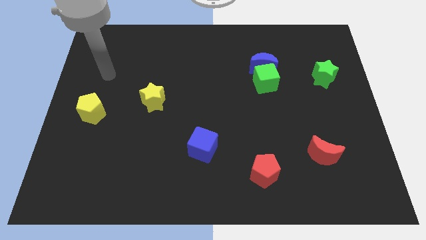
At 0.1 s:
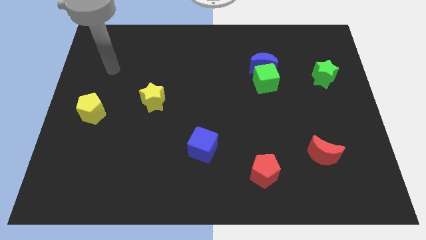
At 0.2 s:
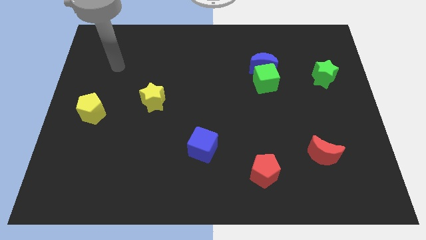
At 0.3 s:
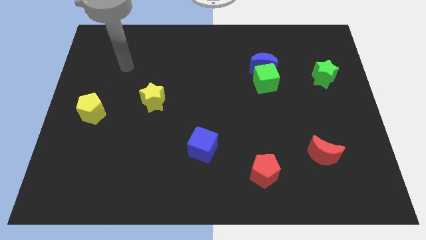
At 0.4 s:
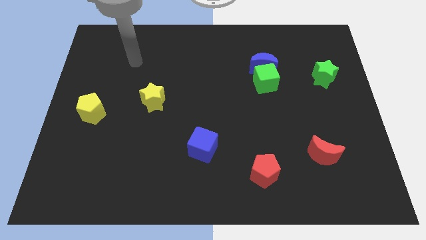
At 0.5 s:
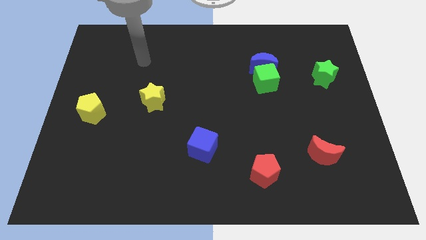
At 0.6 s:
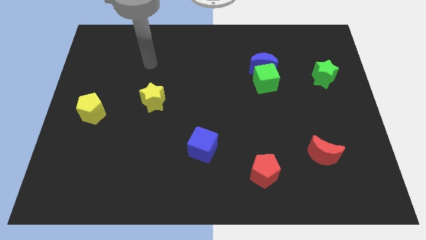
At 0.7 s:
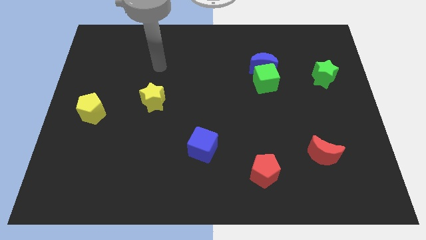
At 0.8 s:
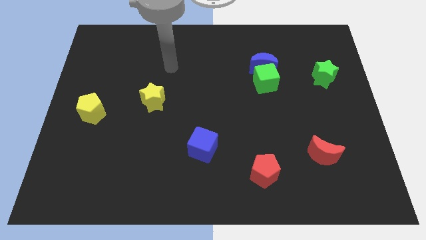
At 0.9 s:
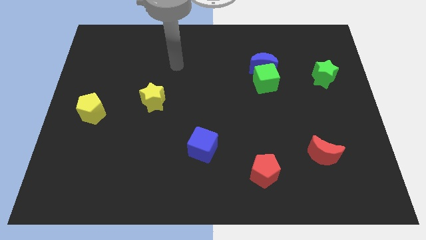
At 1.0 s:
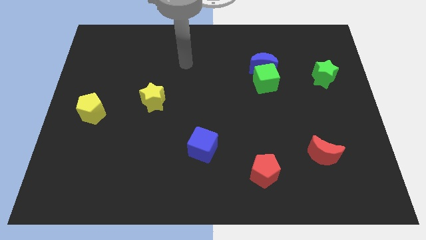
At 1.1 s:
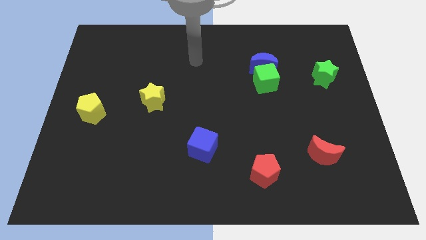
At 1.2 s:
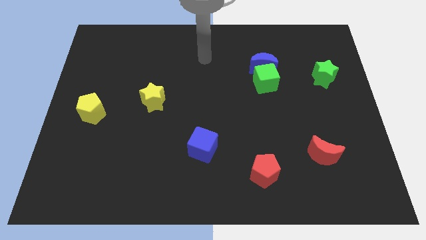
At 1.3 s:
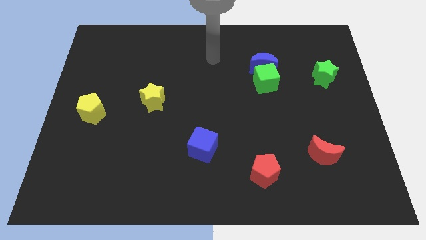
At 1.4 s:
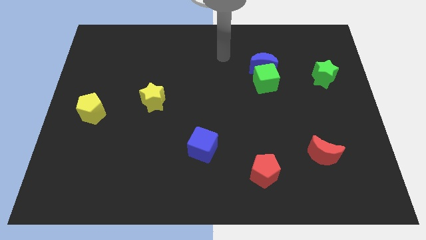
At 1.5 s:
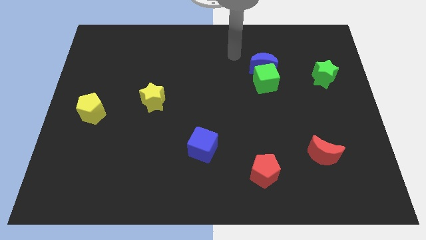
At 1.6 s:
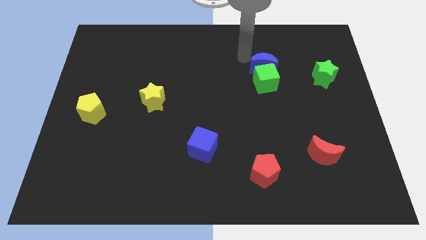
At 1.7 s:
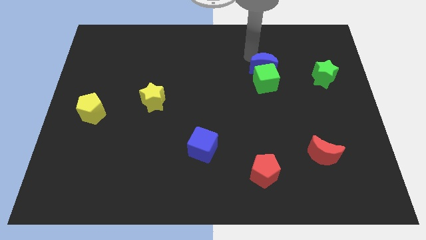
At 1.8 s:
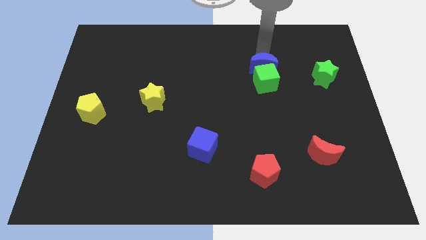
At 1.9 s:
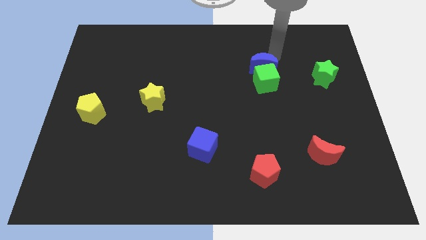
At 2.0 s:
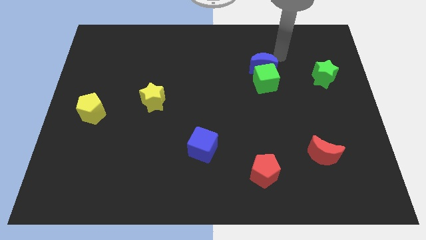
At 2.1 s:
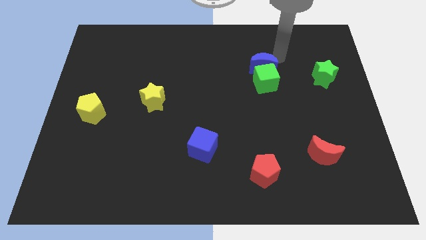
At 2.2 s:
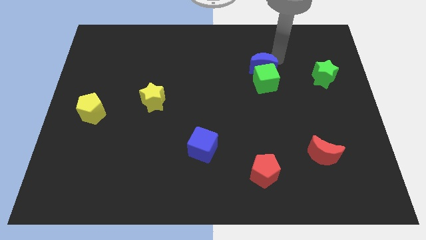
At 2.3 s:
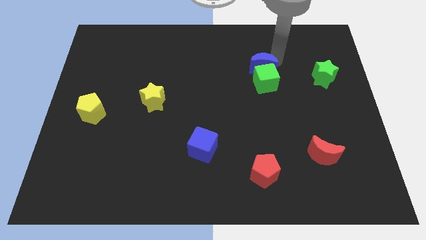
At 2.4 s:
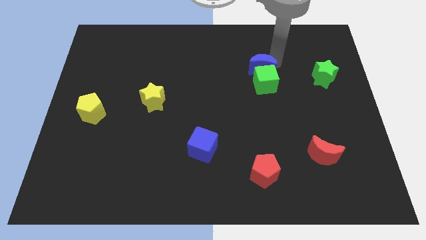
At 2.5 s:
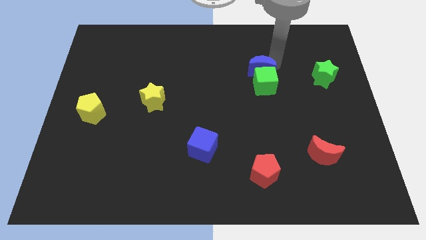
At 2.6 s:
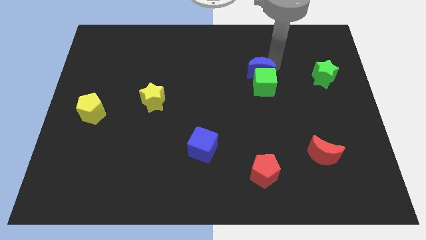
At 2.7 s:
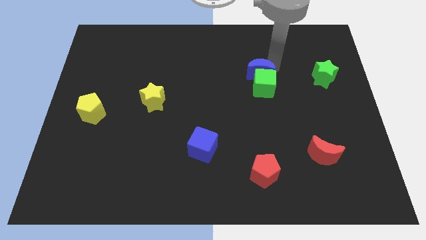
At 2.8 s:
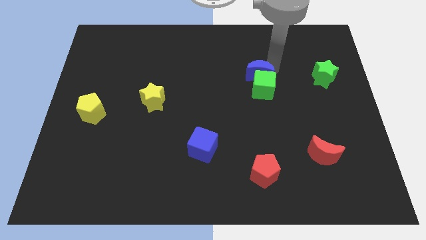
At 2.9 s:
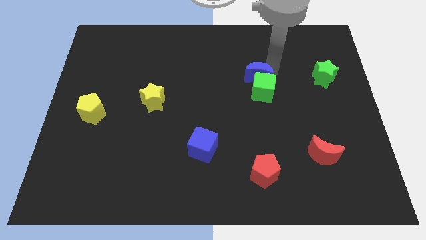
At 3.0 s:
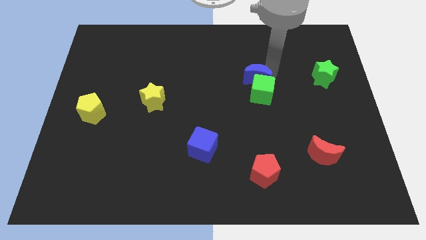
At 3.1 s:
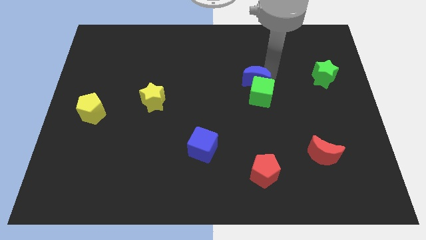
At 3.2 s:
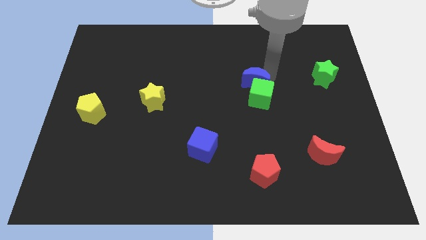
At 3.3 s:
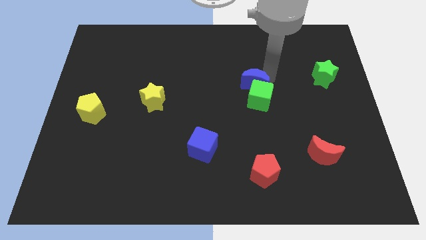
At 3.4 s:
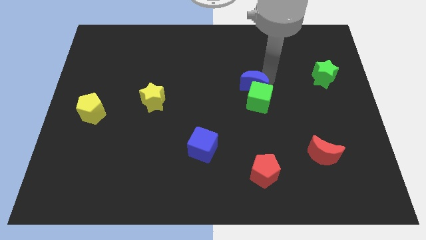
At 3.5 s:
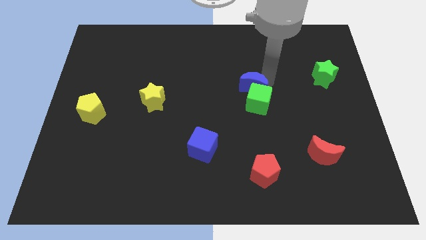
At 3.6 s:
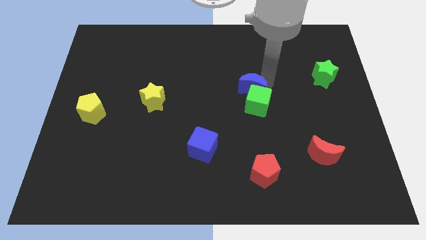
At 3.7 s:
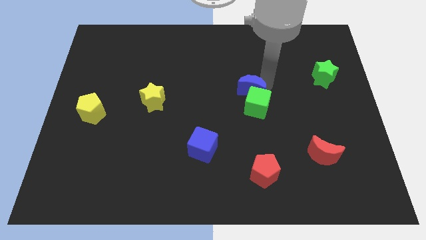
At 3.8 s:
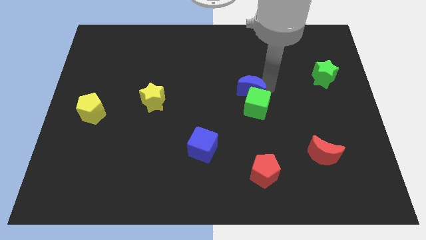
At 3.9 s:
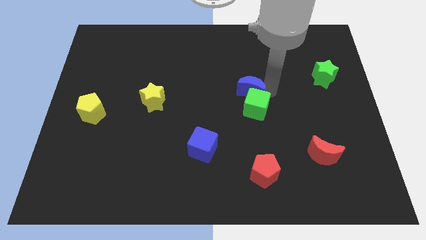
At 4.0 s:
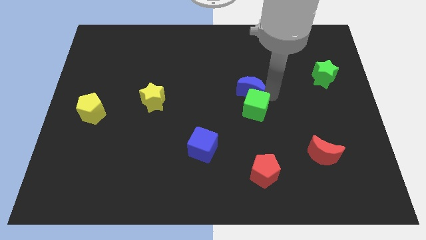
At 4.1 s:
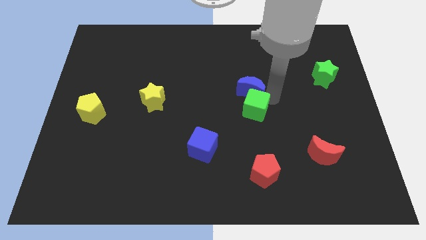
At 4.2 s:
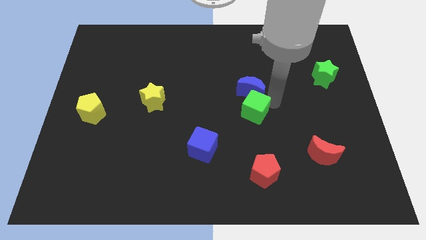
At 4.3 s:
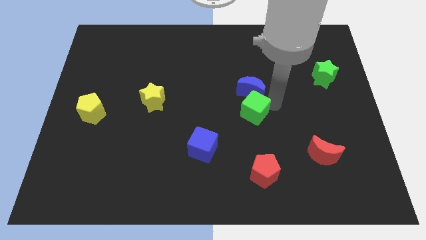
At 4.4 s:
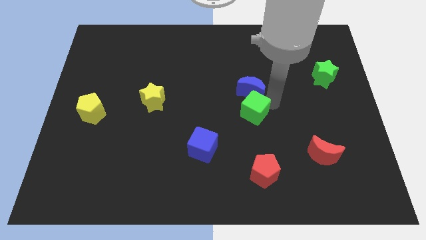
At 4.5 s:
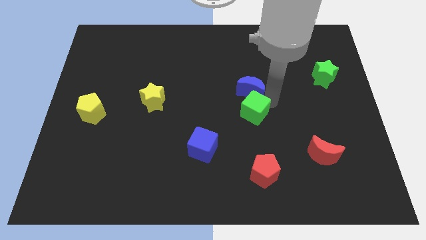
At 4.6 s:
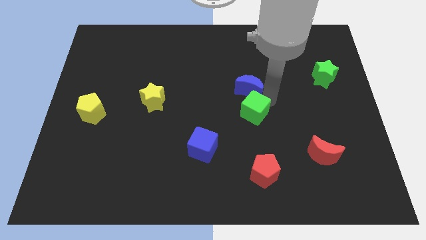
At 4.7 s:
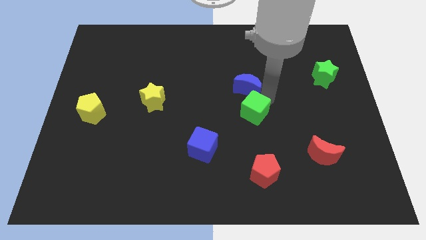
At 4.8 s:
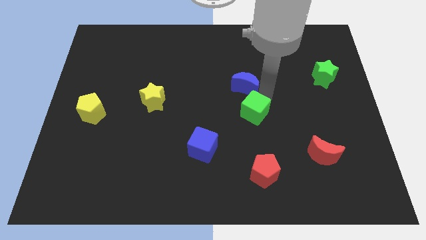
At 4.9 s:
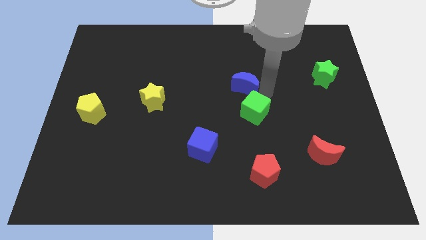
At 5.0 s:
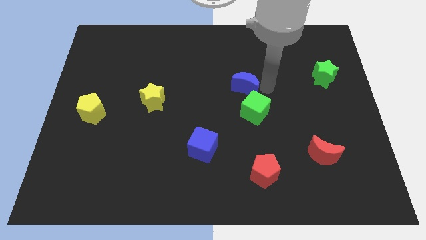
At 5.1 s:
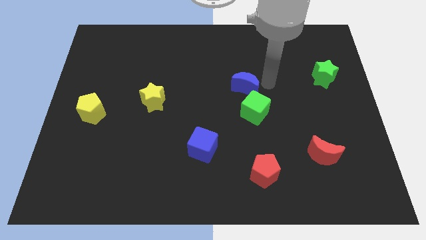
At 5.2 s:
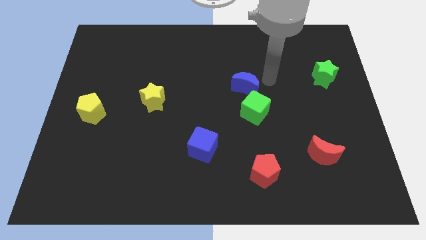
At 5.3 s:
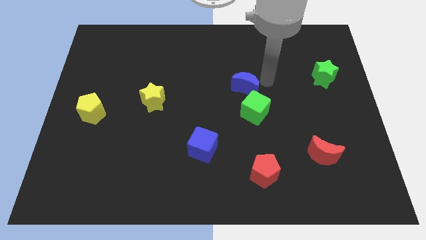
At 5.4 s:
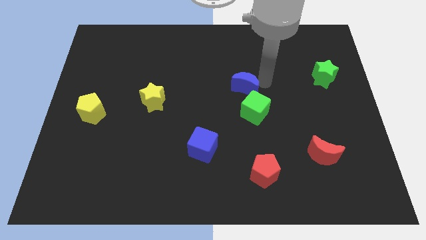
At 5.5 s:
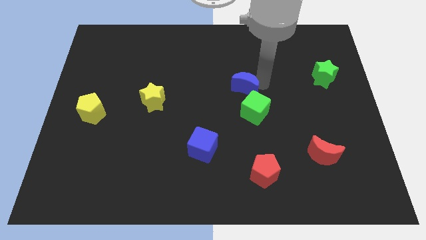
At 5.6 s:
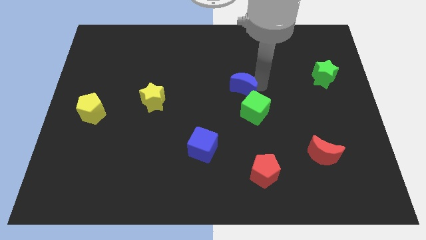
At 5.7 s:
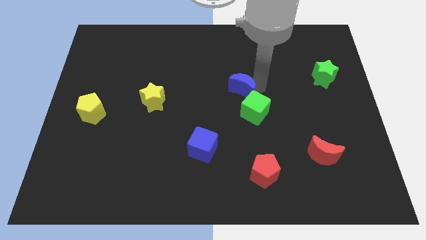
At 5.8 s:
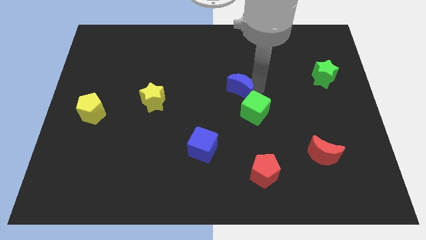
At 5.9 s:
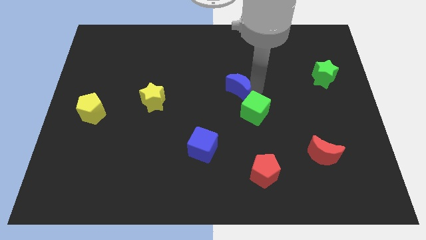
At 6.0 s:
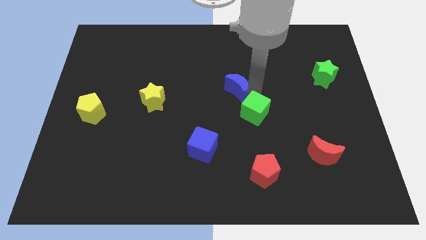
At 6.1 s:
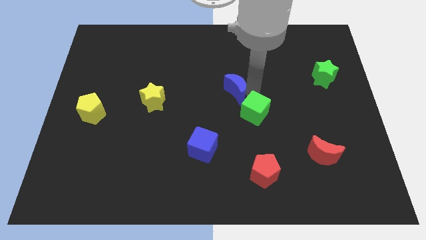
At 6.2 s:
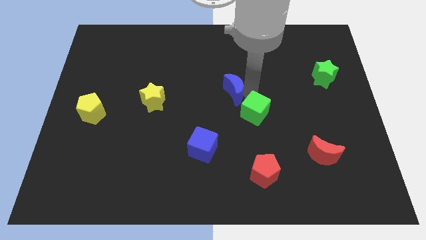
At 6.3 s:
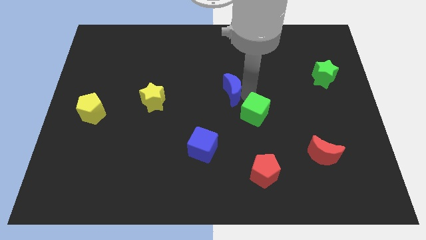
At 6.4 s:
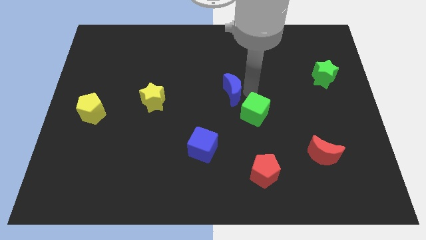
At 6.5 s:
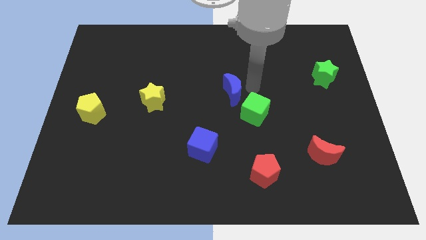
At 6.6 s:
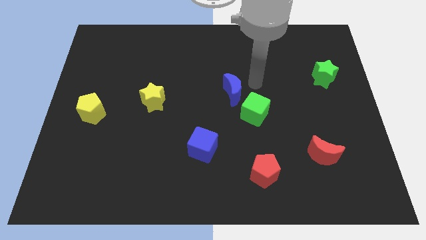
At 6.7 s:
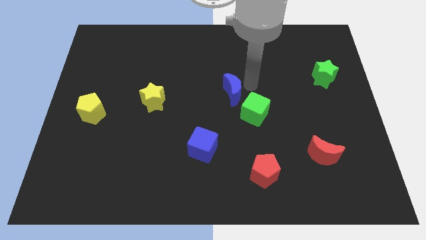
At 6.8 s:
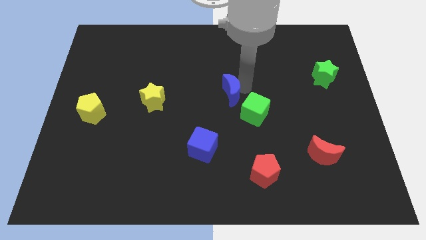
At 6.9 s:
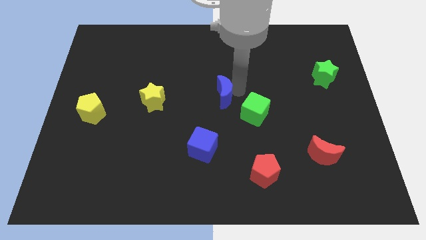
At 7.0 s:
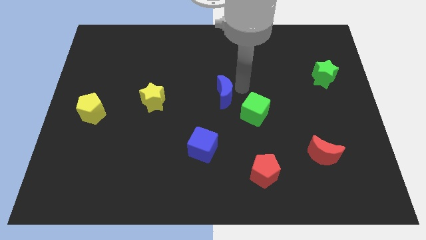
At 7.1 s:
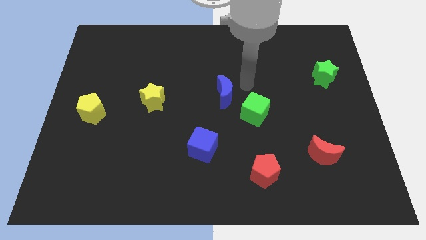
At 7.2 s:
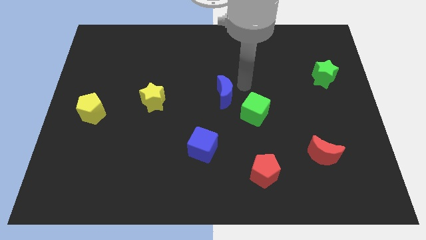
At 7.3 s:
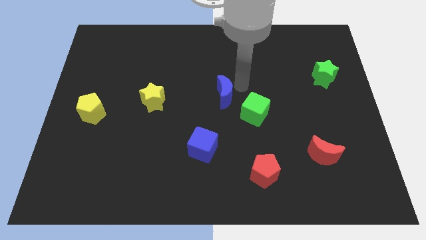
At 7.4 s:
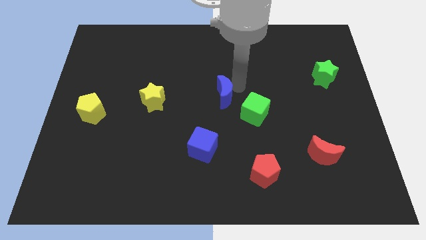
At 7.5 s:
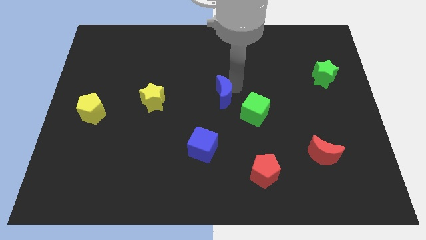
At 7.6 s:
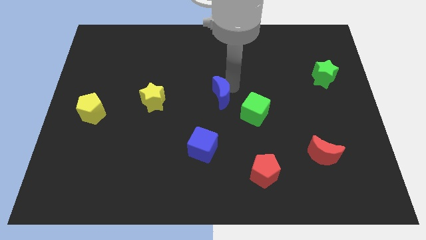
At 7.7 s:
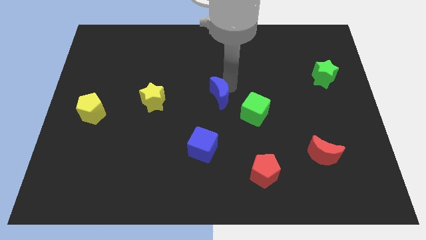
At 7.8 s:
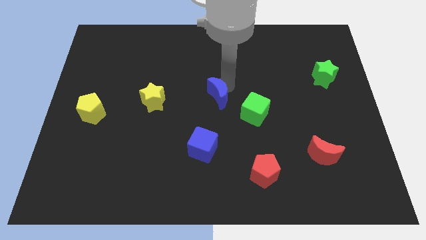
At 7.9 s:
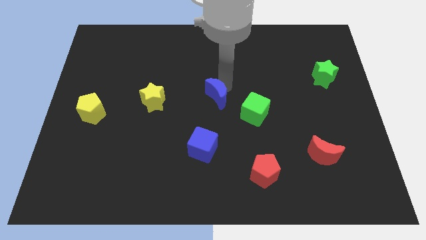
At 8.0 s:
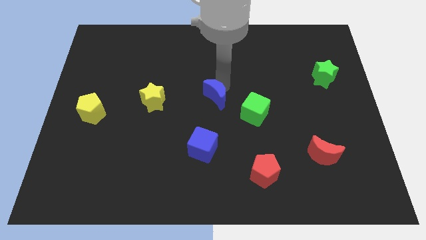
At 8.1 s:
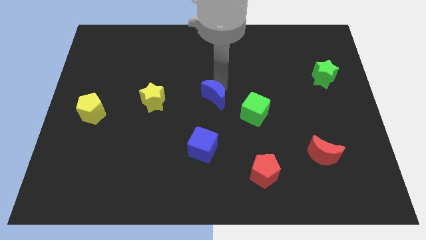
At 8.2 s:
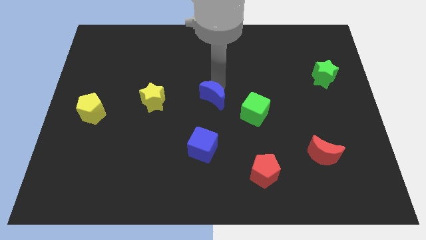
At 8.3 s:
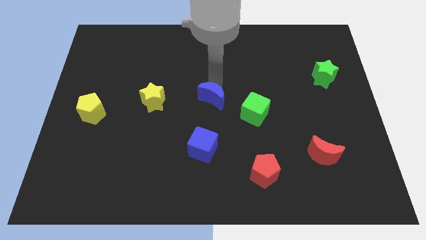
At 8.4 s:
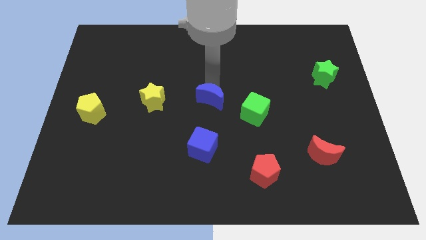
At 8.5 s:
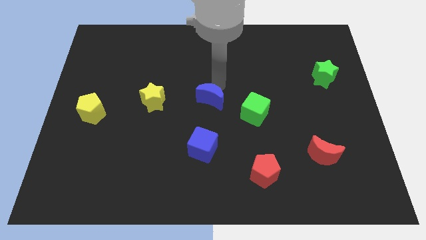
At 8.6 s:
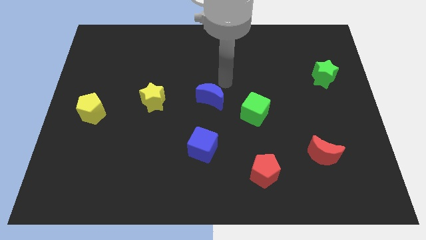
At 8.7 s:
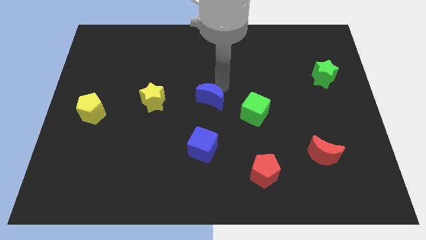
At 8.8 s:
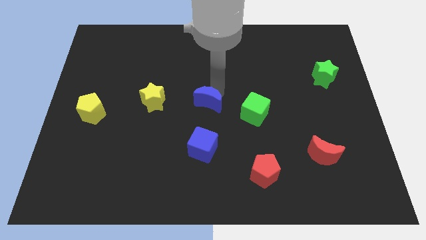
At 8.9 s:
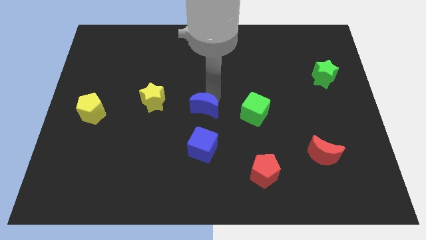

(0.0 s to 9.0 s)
push the blue moon downwards and left
